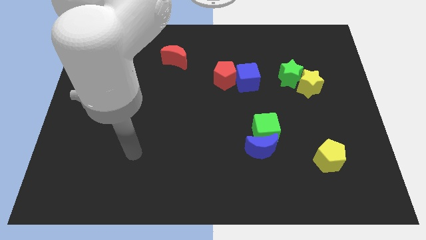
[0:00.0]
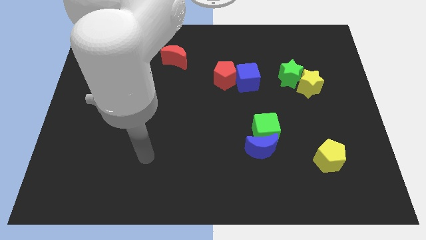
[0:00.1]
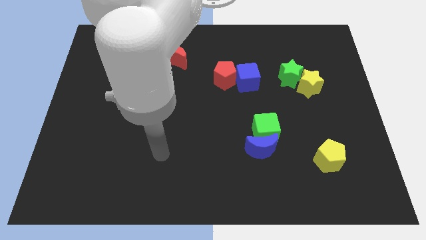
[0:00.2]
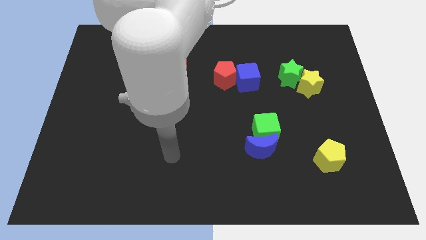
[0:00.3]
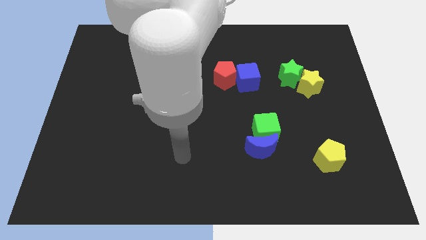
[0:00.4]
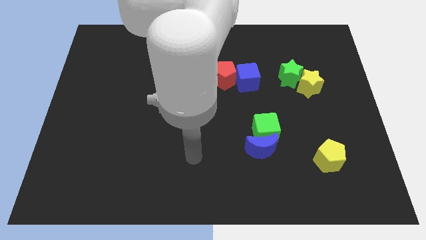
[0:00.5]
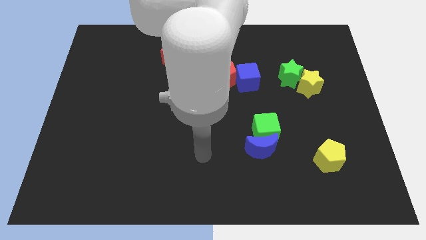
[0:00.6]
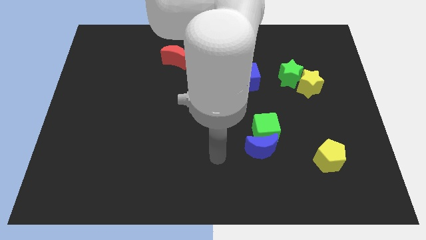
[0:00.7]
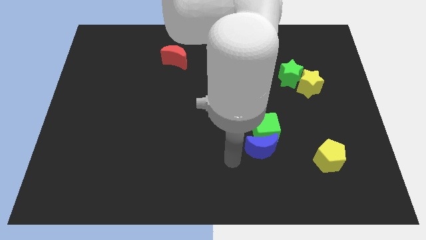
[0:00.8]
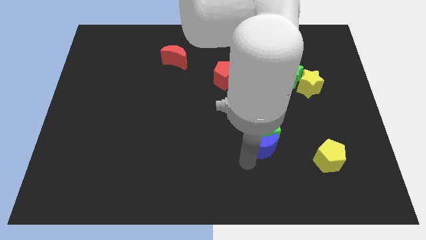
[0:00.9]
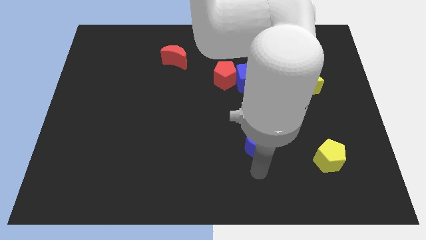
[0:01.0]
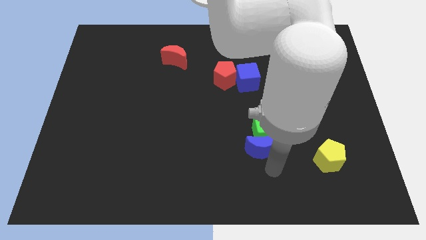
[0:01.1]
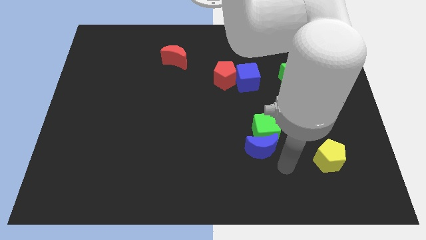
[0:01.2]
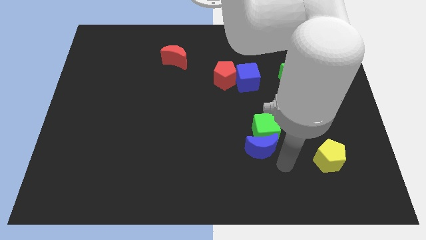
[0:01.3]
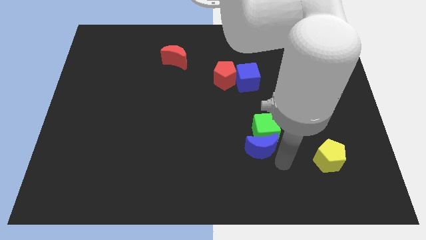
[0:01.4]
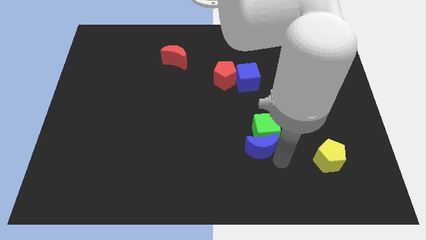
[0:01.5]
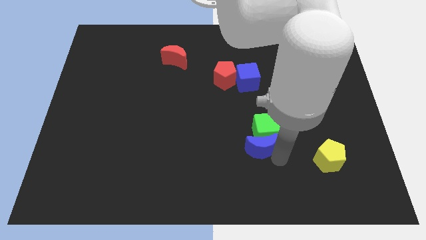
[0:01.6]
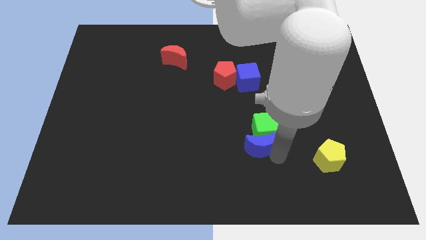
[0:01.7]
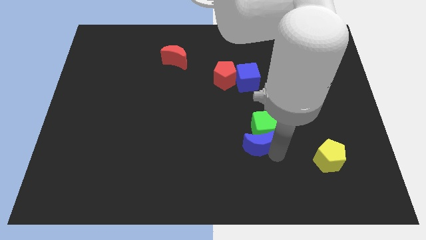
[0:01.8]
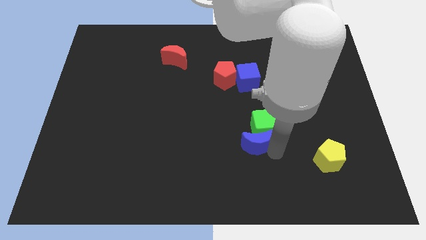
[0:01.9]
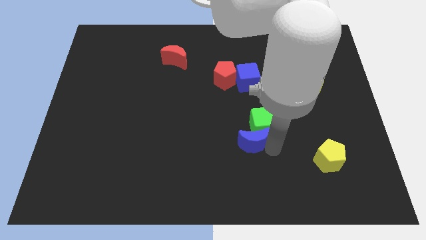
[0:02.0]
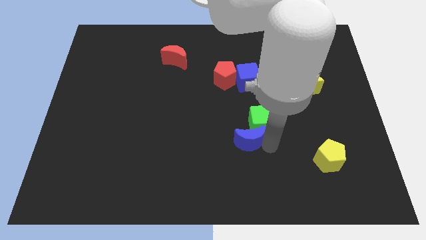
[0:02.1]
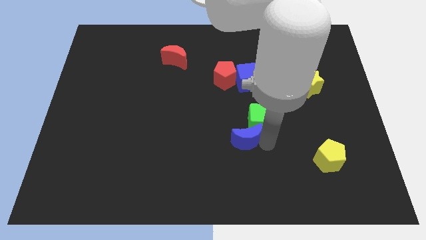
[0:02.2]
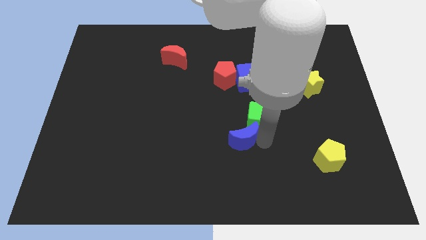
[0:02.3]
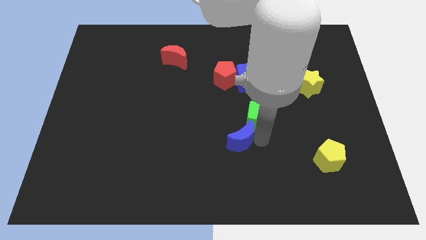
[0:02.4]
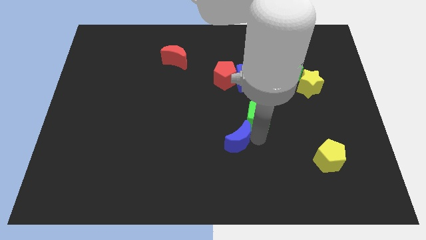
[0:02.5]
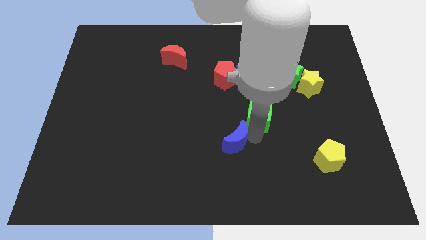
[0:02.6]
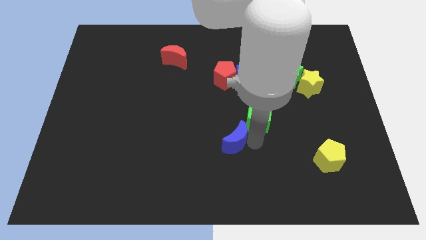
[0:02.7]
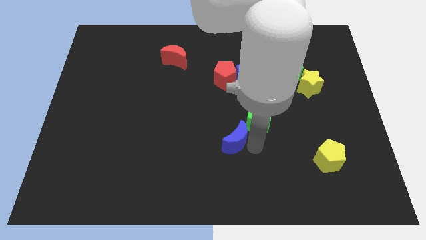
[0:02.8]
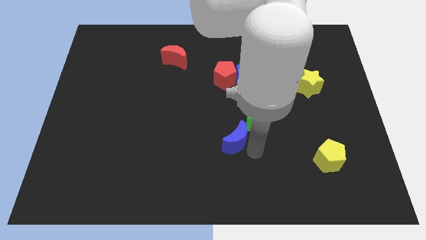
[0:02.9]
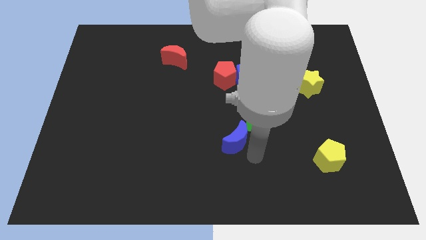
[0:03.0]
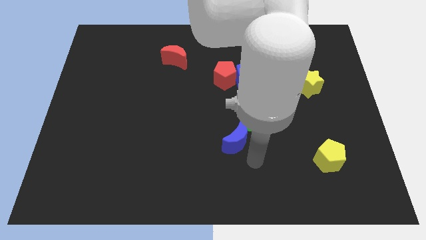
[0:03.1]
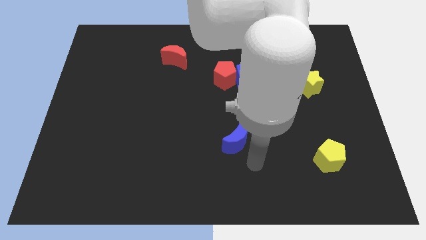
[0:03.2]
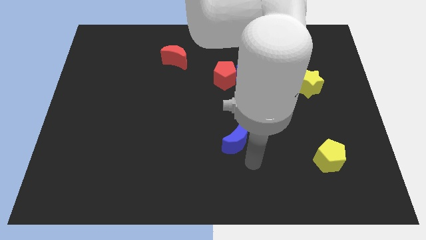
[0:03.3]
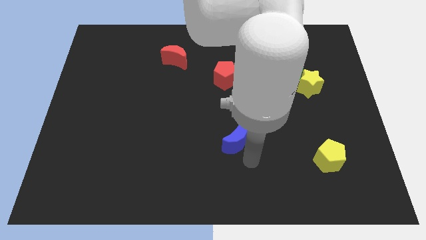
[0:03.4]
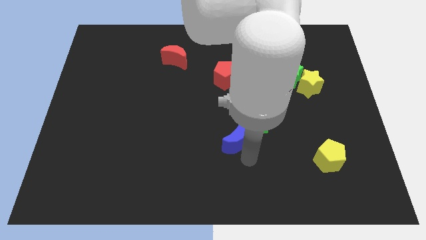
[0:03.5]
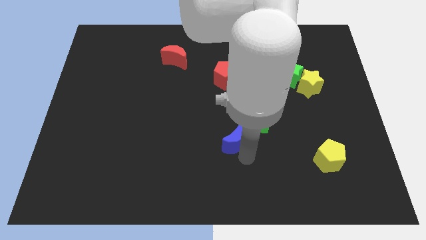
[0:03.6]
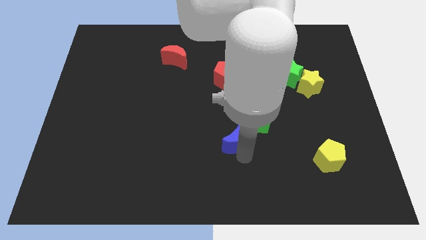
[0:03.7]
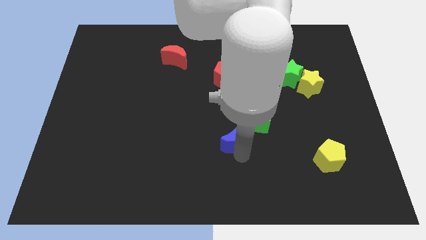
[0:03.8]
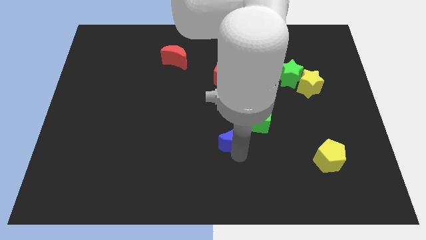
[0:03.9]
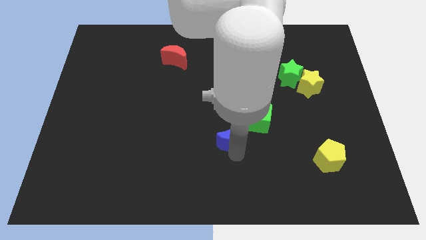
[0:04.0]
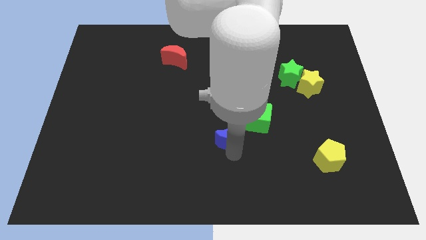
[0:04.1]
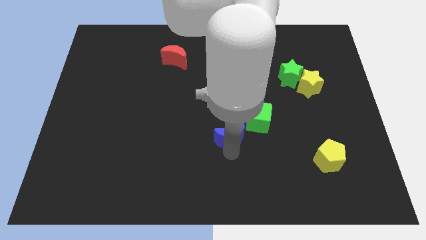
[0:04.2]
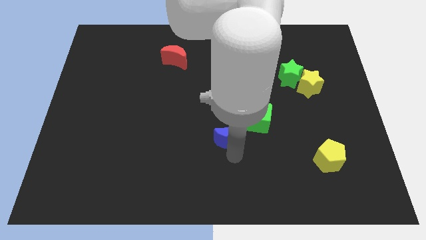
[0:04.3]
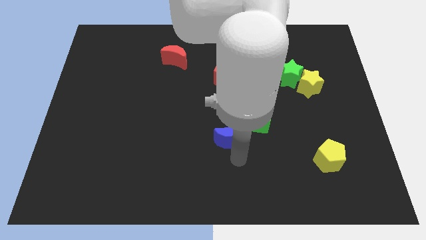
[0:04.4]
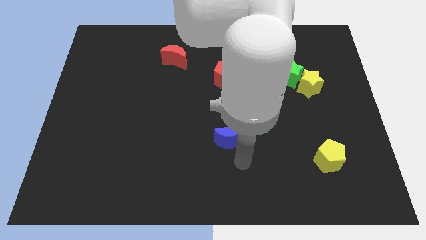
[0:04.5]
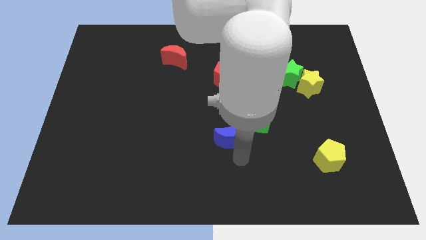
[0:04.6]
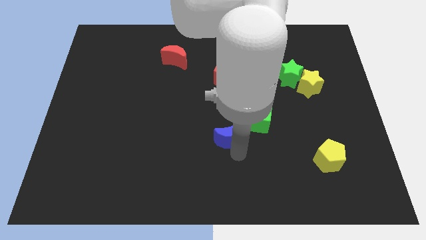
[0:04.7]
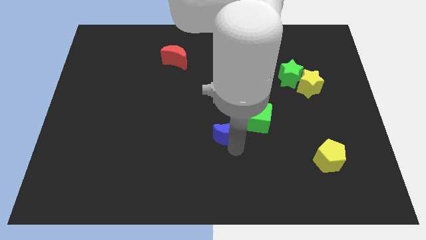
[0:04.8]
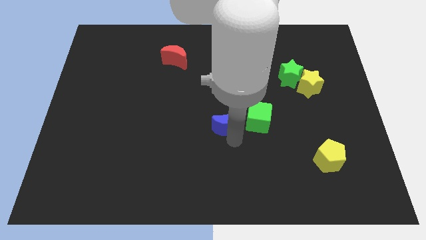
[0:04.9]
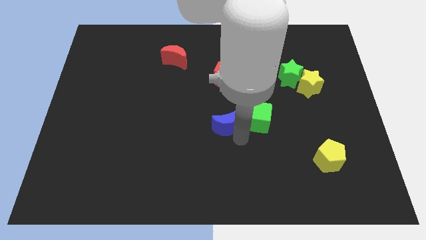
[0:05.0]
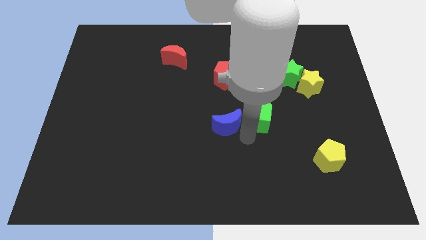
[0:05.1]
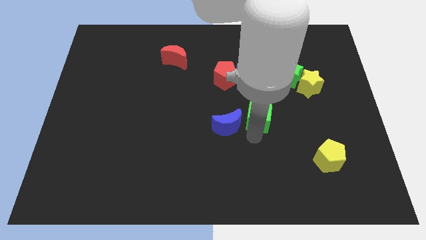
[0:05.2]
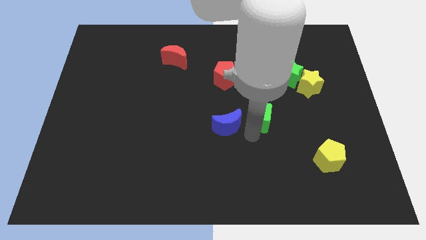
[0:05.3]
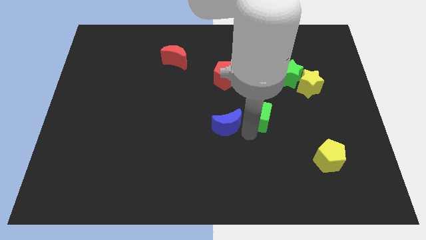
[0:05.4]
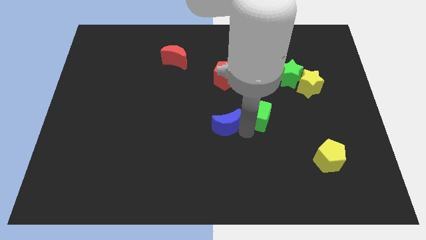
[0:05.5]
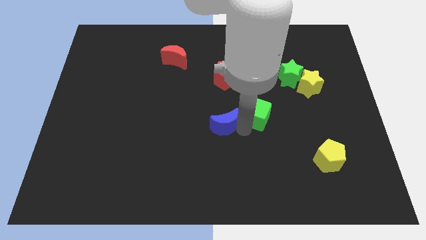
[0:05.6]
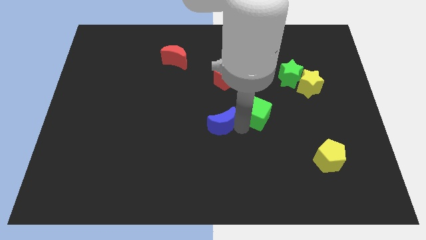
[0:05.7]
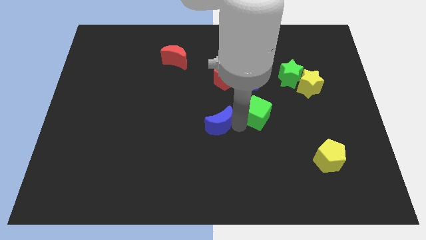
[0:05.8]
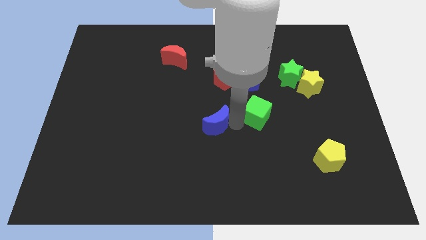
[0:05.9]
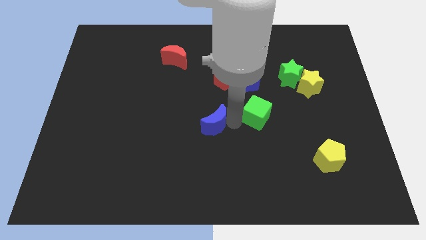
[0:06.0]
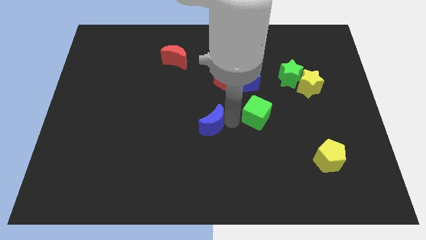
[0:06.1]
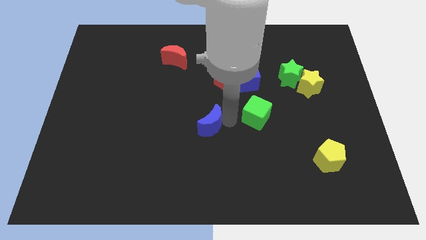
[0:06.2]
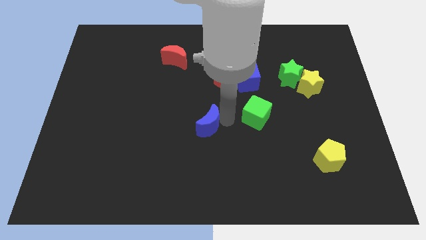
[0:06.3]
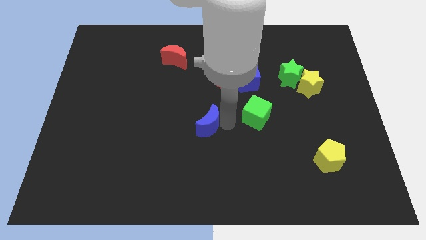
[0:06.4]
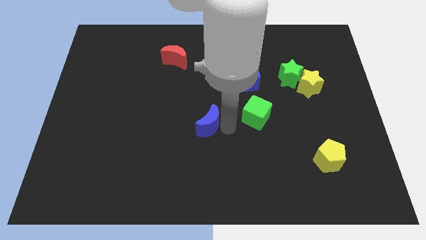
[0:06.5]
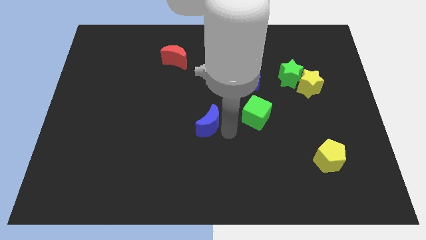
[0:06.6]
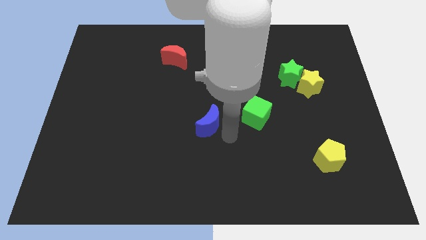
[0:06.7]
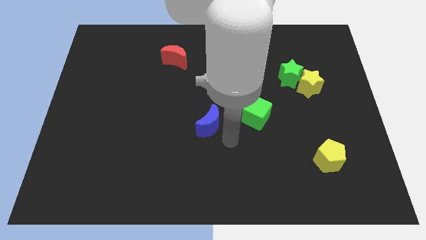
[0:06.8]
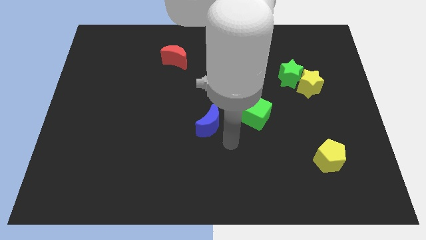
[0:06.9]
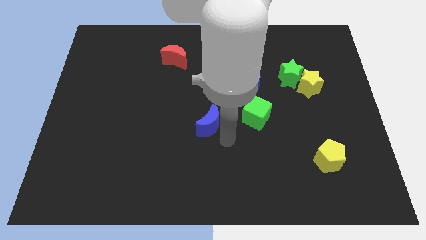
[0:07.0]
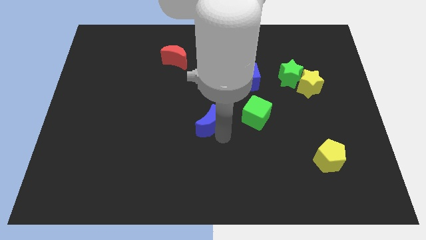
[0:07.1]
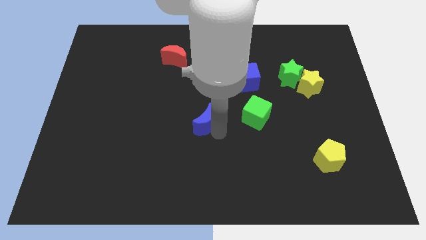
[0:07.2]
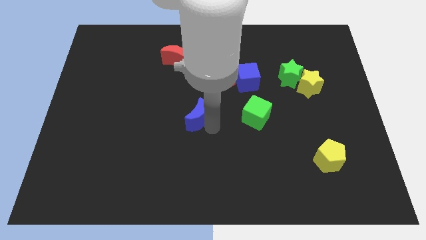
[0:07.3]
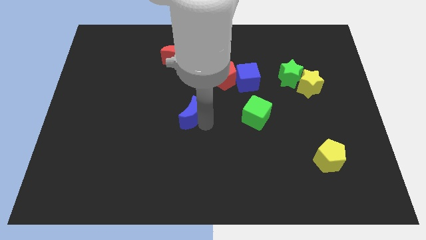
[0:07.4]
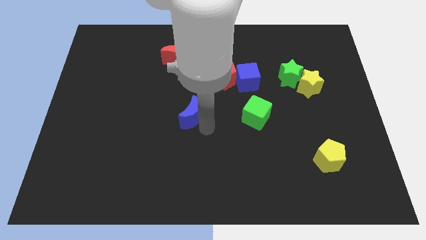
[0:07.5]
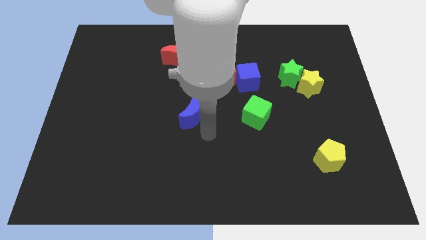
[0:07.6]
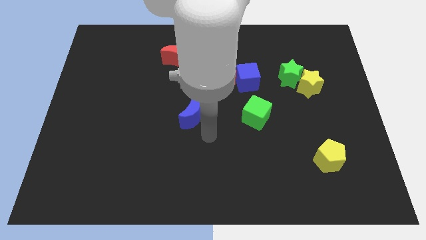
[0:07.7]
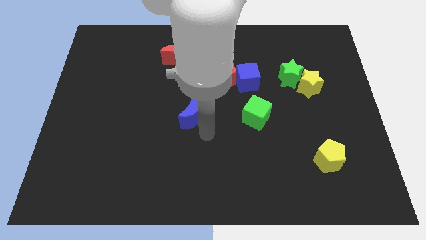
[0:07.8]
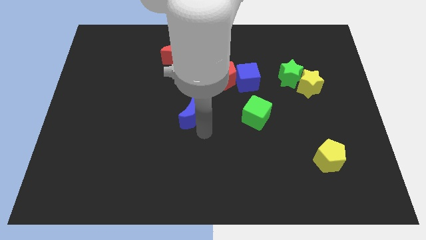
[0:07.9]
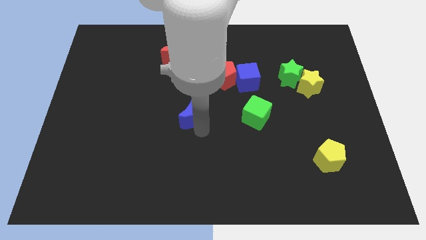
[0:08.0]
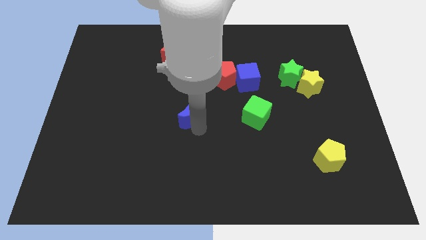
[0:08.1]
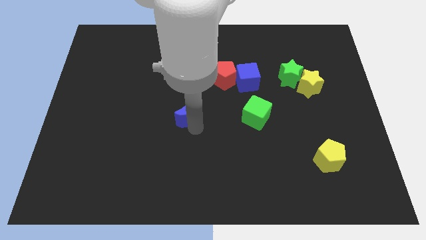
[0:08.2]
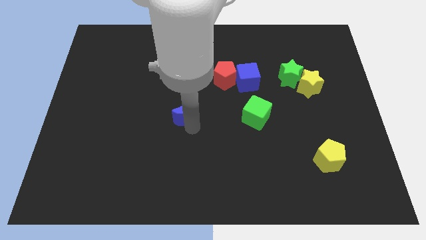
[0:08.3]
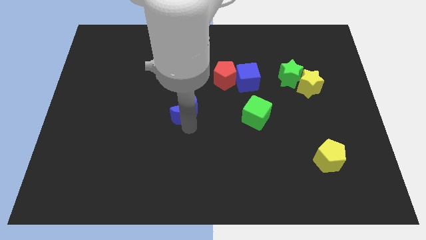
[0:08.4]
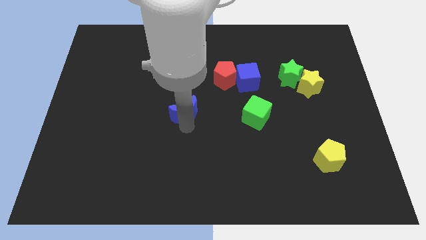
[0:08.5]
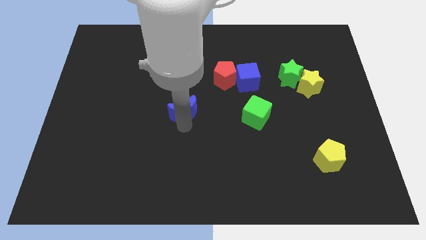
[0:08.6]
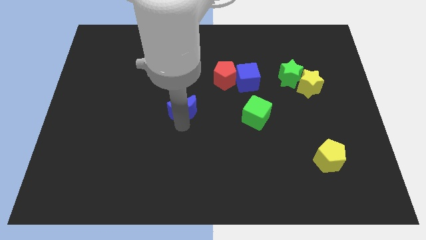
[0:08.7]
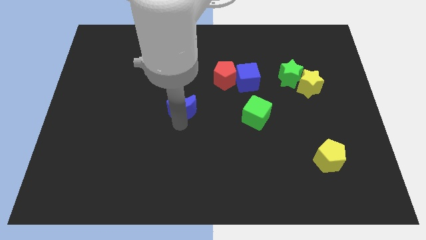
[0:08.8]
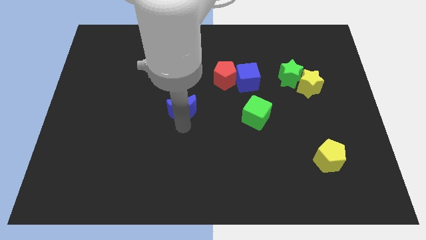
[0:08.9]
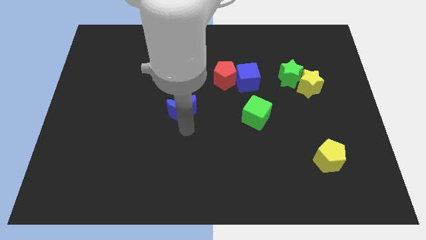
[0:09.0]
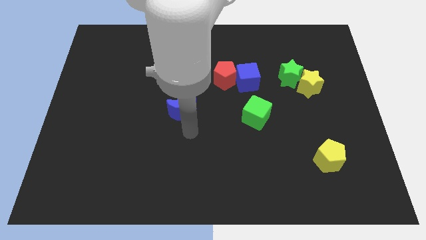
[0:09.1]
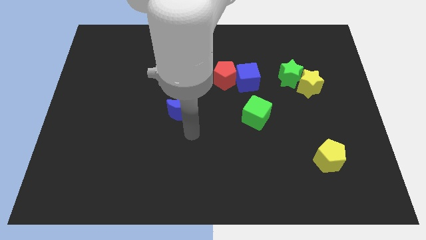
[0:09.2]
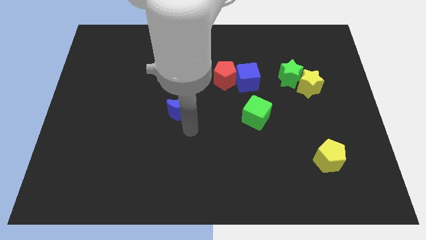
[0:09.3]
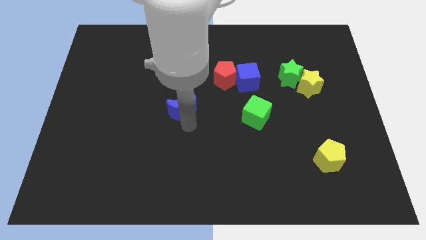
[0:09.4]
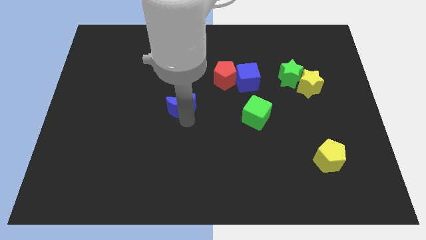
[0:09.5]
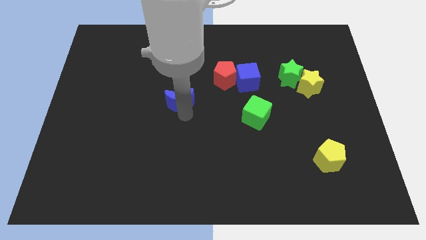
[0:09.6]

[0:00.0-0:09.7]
slide the blue moon diagonally up and to the left
